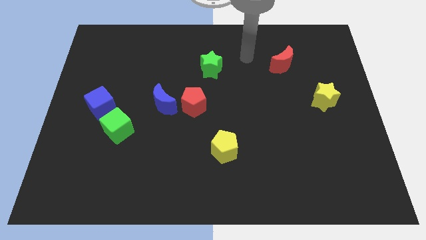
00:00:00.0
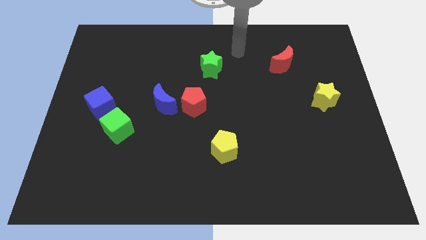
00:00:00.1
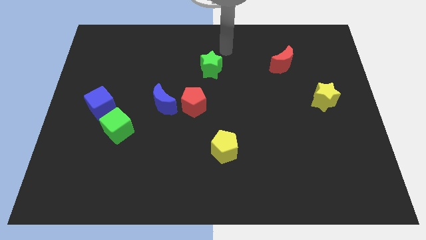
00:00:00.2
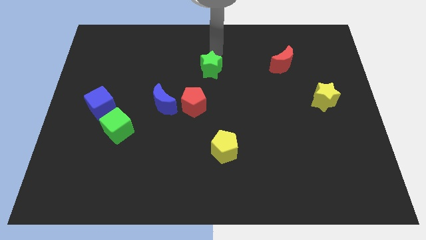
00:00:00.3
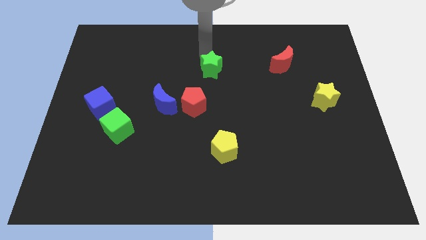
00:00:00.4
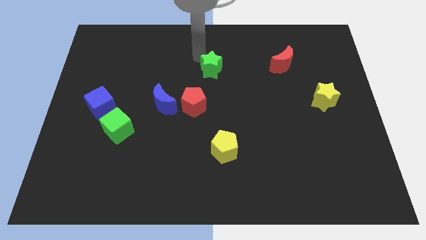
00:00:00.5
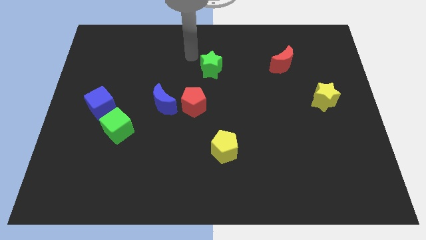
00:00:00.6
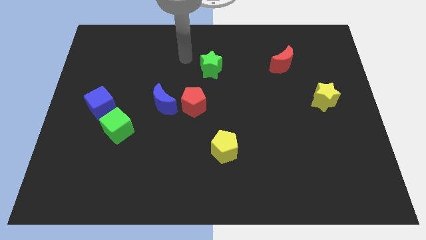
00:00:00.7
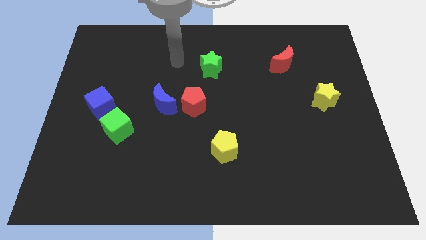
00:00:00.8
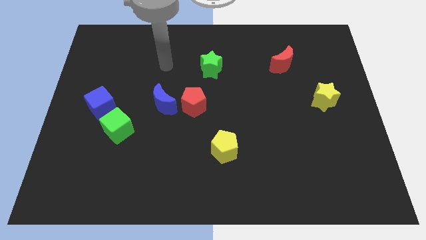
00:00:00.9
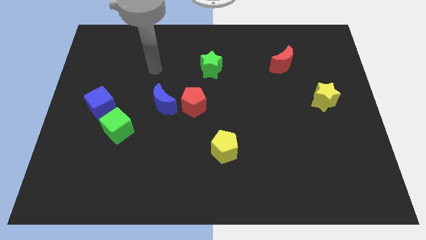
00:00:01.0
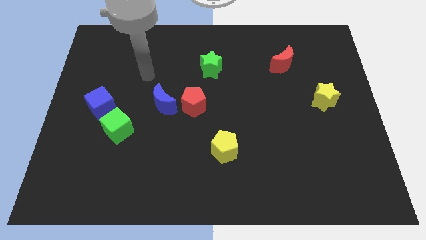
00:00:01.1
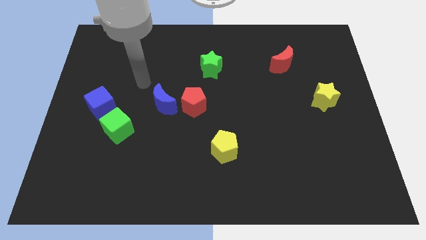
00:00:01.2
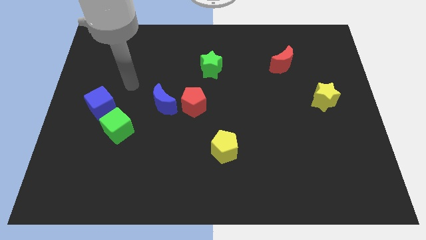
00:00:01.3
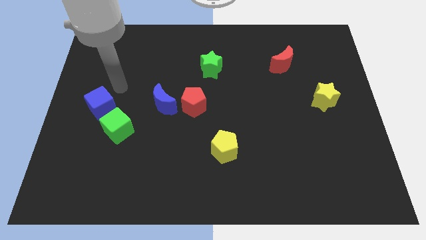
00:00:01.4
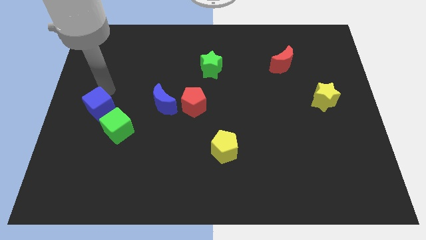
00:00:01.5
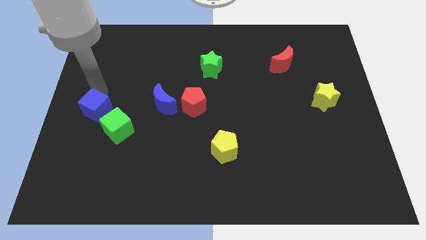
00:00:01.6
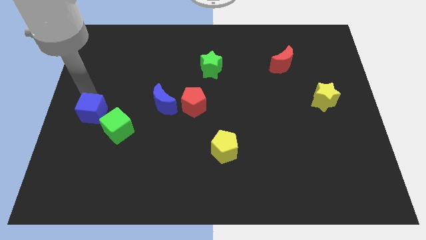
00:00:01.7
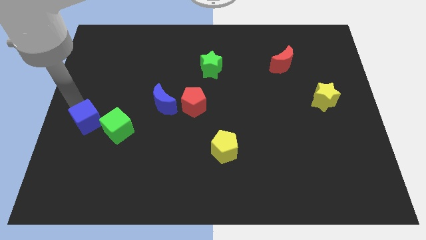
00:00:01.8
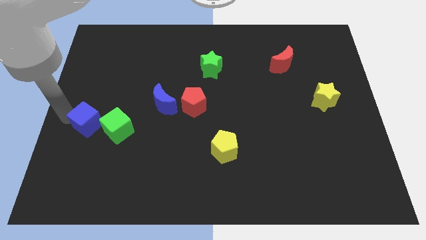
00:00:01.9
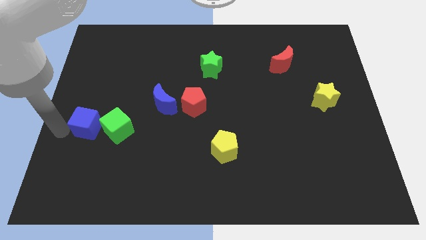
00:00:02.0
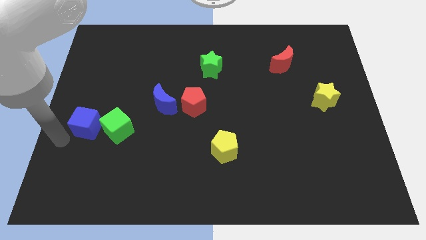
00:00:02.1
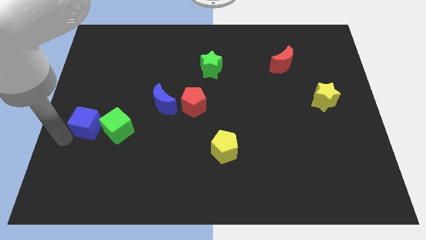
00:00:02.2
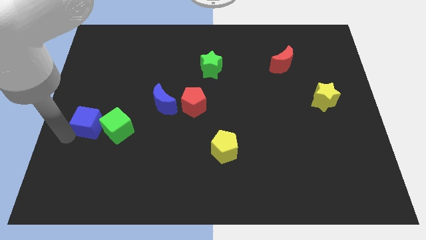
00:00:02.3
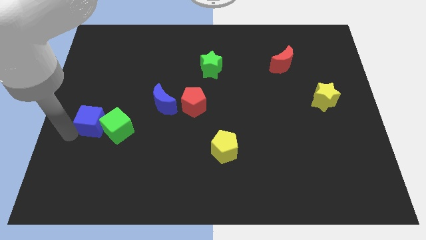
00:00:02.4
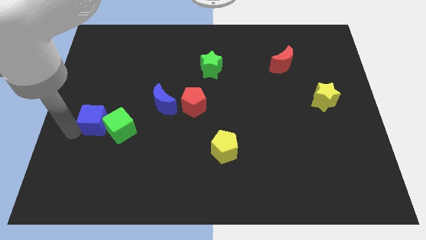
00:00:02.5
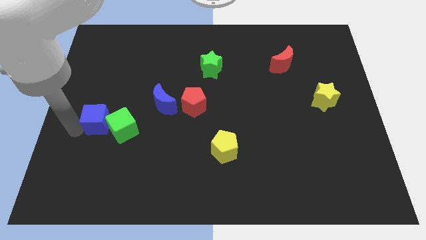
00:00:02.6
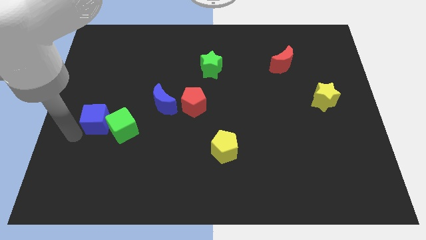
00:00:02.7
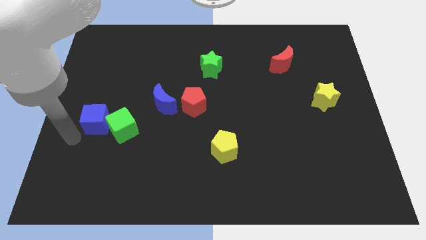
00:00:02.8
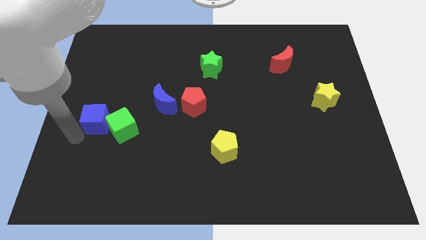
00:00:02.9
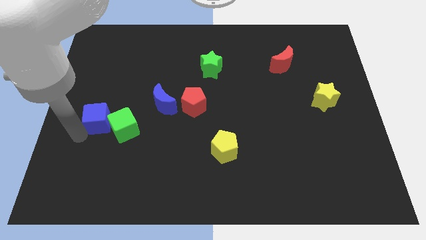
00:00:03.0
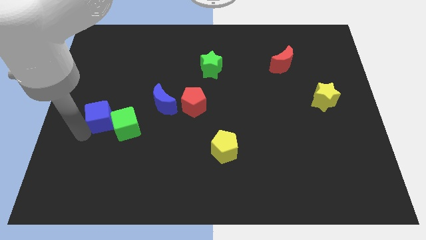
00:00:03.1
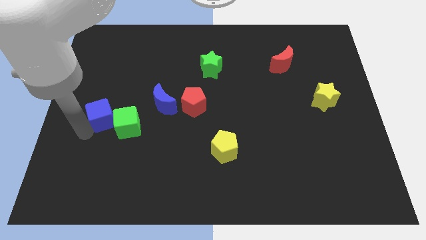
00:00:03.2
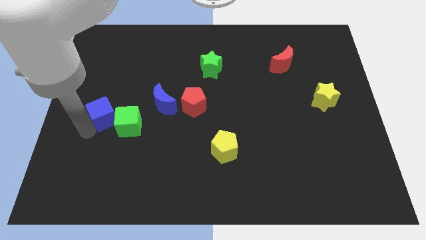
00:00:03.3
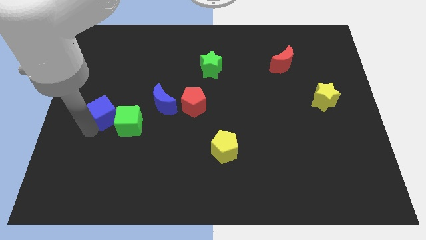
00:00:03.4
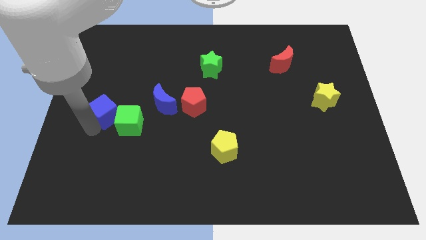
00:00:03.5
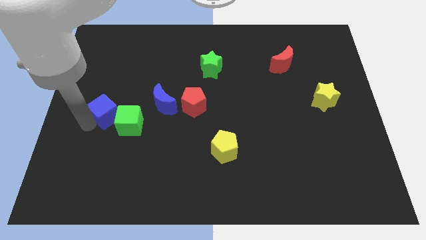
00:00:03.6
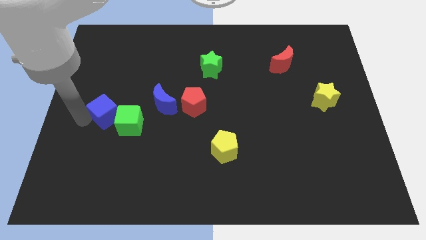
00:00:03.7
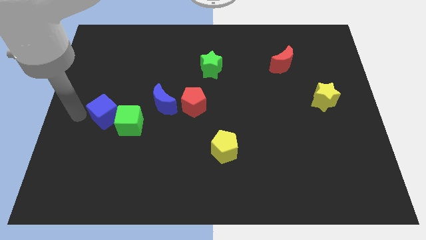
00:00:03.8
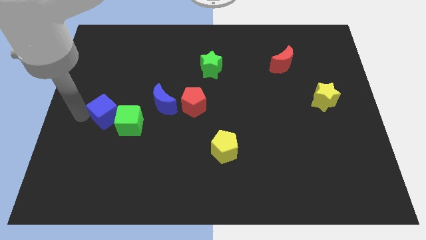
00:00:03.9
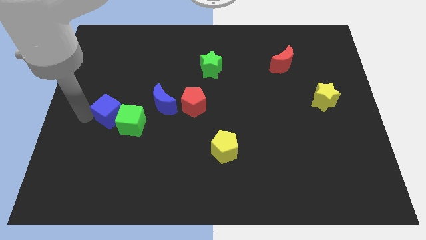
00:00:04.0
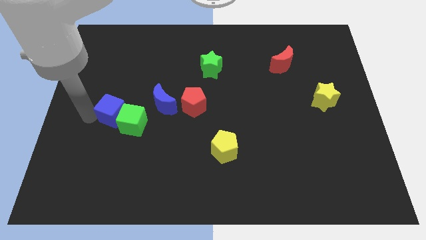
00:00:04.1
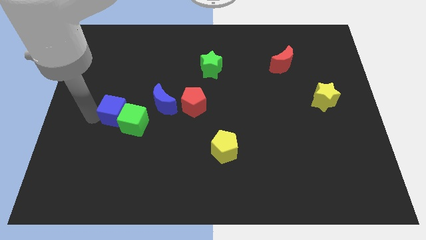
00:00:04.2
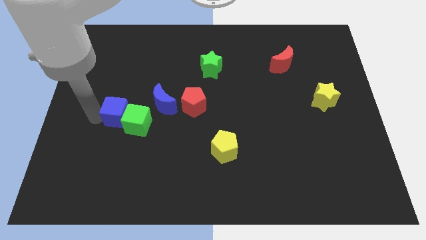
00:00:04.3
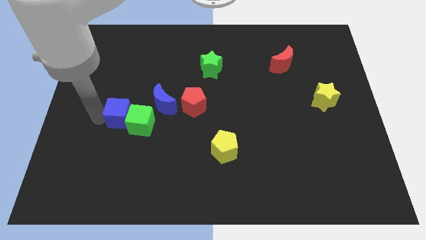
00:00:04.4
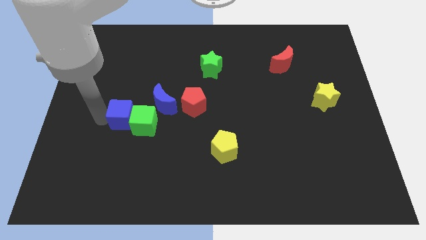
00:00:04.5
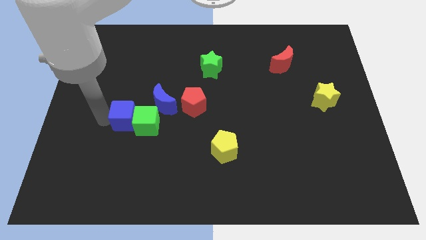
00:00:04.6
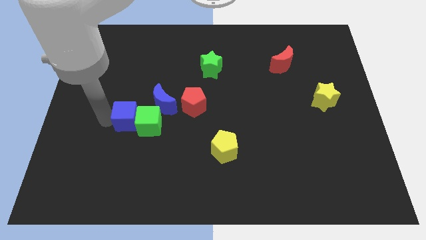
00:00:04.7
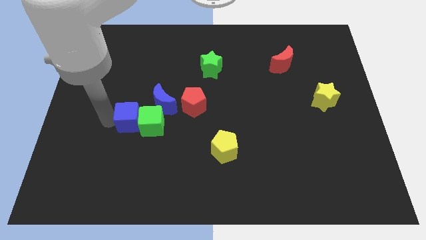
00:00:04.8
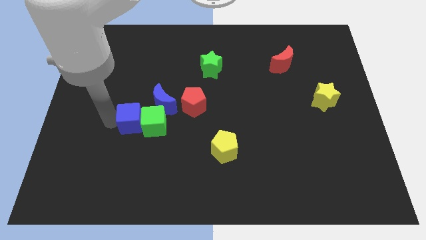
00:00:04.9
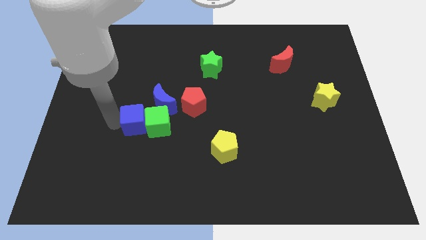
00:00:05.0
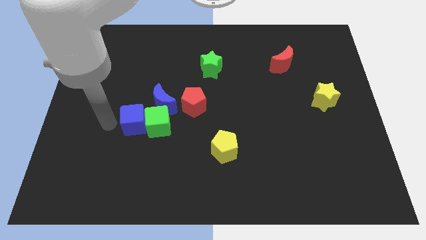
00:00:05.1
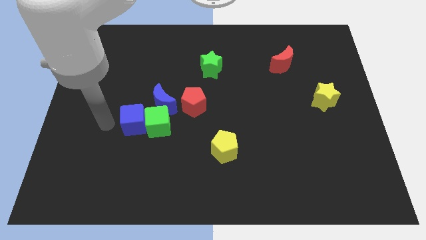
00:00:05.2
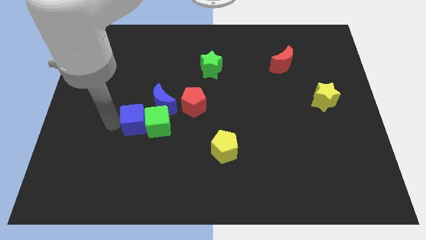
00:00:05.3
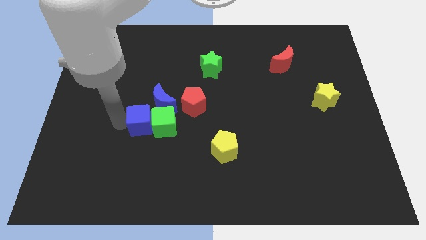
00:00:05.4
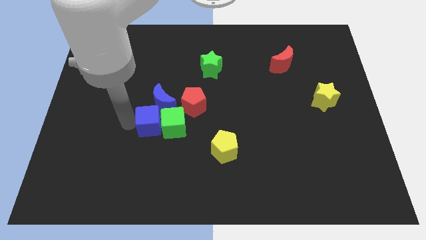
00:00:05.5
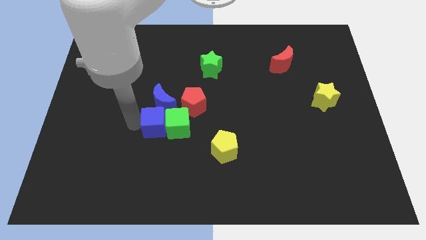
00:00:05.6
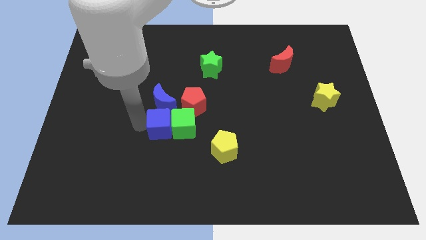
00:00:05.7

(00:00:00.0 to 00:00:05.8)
slide the blue cube diagonally down and to the right of the blue moon

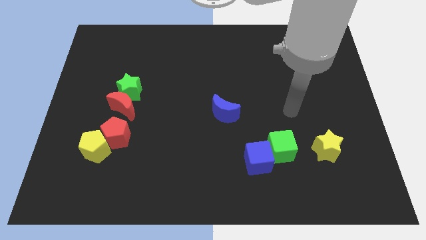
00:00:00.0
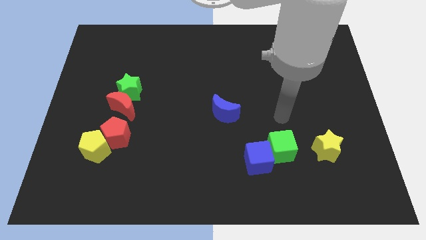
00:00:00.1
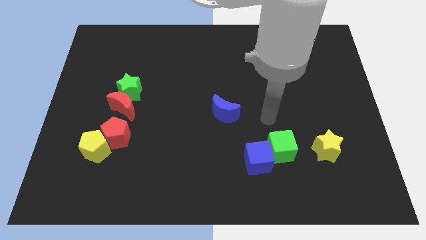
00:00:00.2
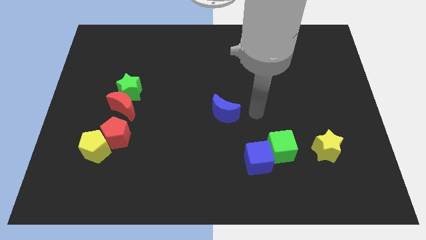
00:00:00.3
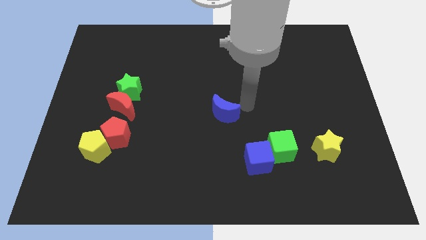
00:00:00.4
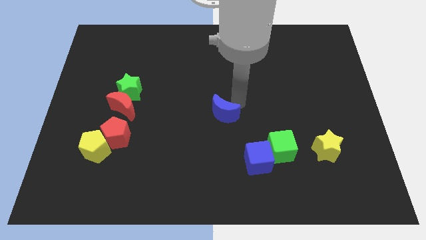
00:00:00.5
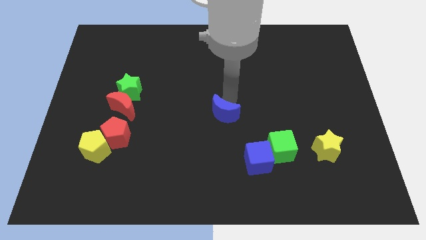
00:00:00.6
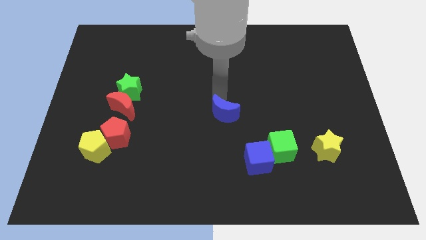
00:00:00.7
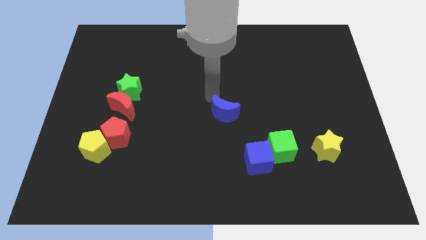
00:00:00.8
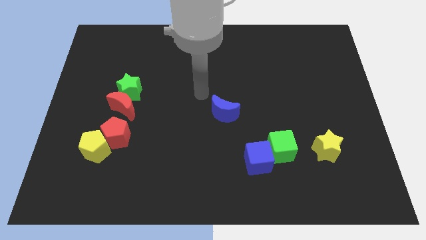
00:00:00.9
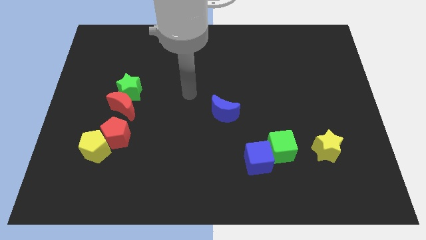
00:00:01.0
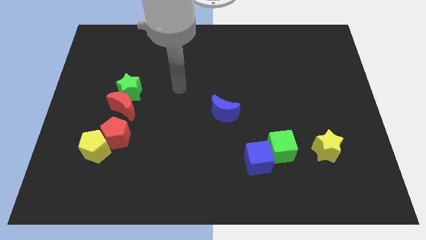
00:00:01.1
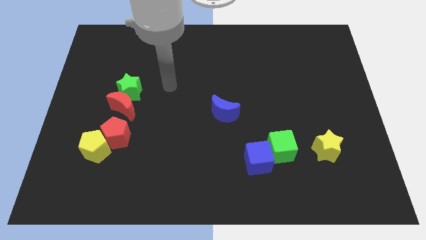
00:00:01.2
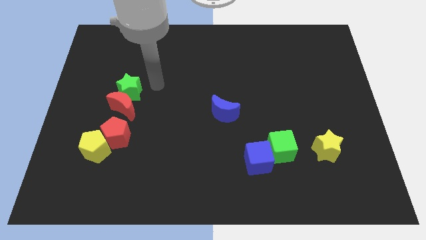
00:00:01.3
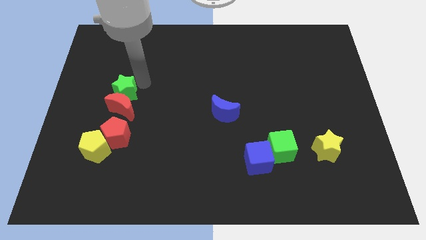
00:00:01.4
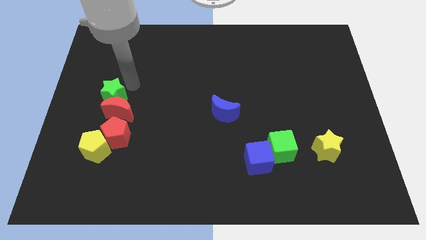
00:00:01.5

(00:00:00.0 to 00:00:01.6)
slide the red moon to the top right of the yellow pentagon
